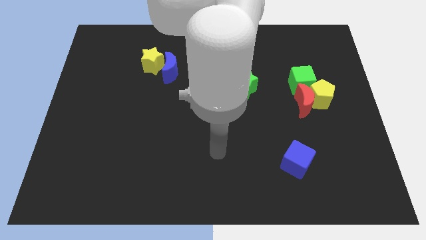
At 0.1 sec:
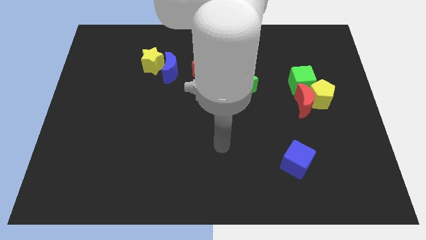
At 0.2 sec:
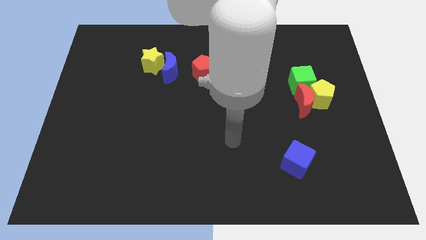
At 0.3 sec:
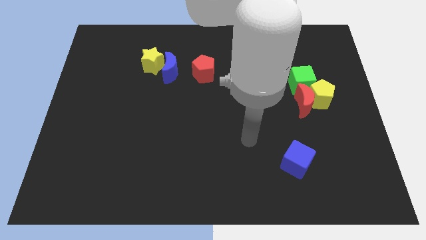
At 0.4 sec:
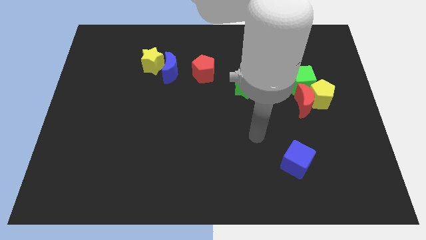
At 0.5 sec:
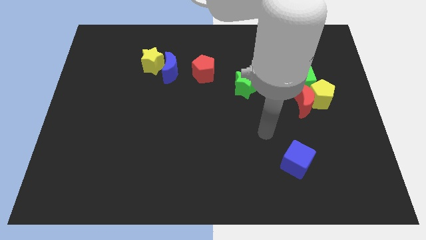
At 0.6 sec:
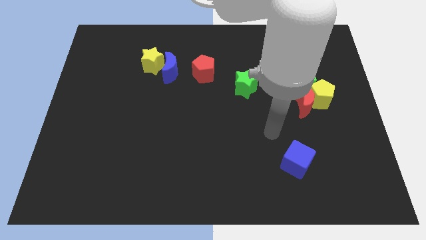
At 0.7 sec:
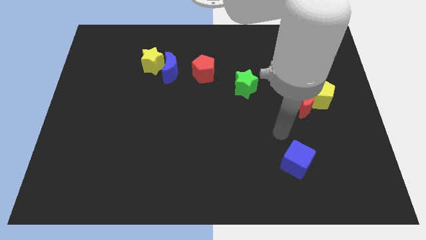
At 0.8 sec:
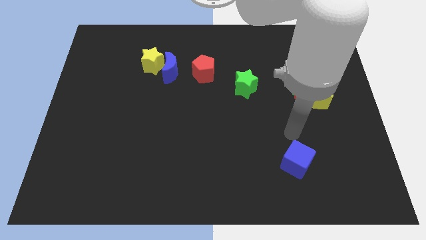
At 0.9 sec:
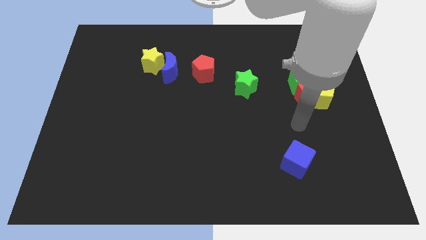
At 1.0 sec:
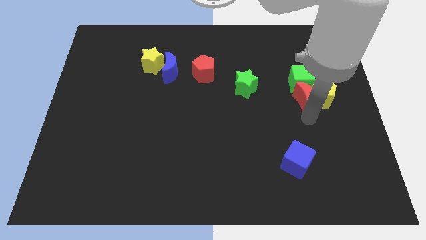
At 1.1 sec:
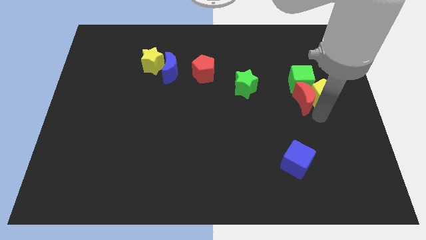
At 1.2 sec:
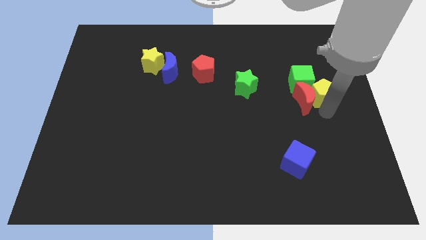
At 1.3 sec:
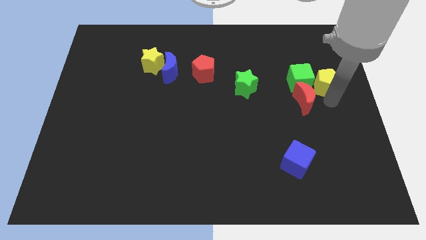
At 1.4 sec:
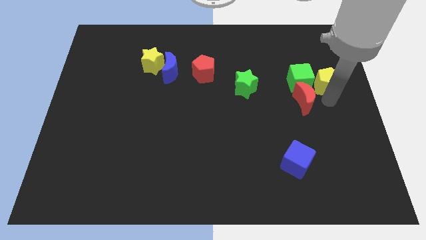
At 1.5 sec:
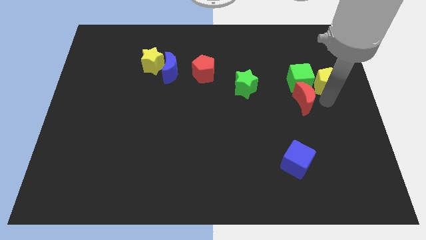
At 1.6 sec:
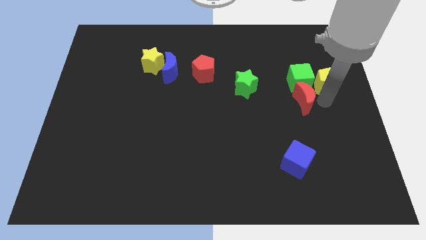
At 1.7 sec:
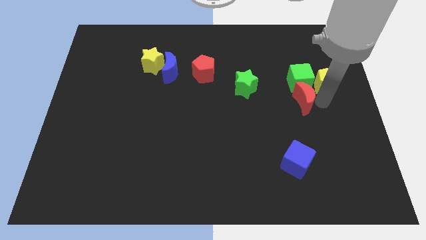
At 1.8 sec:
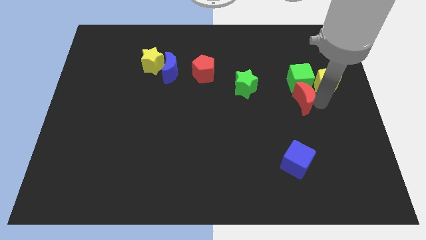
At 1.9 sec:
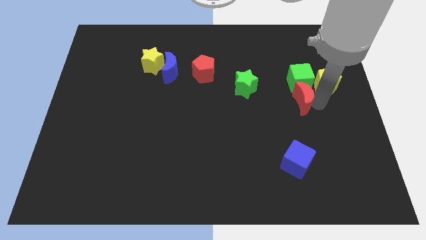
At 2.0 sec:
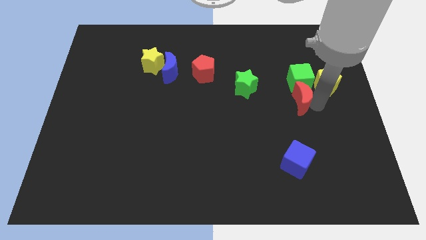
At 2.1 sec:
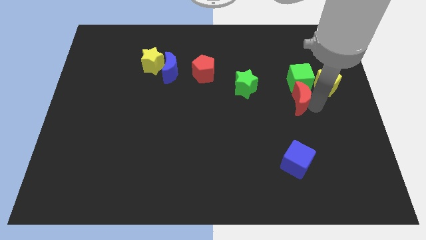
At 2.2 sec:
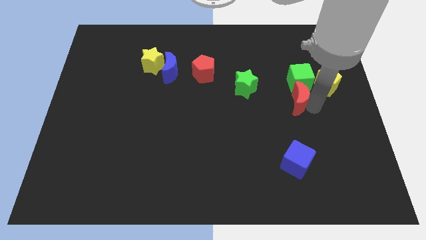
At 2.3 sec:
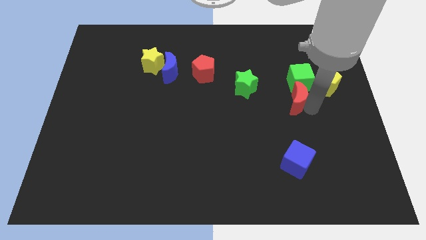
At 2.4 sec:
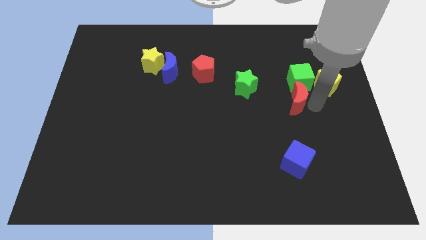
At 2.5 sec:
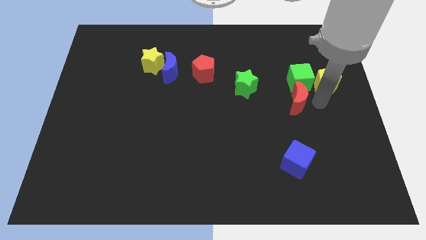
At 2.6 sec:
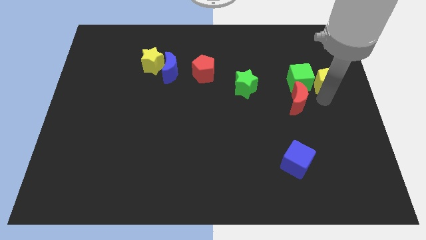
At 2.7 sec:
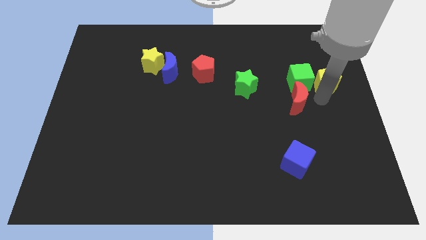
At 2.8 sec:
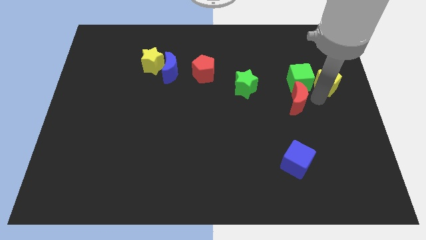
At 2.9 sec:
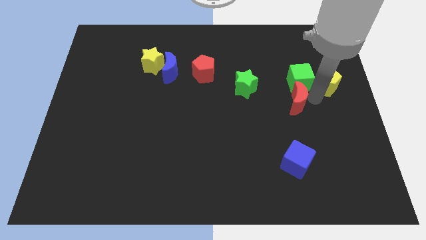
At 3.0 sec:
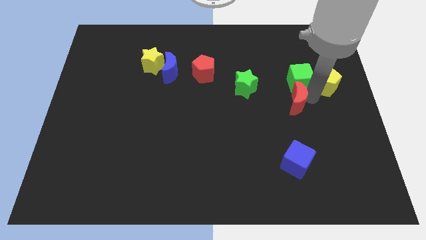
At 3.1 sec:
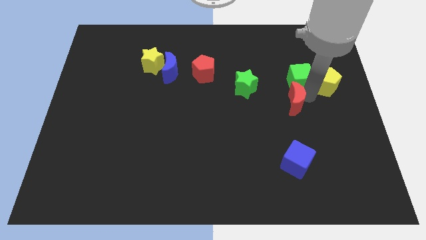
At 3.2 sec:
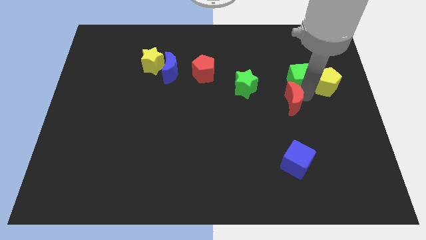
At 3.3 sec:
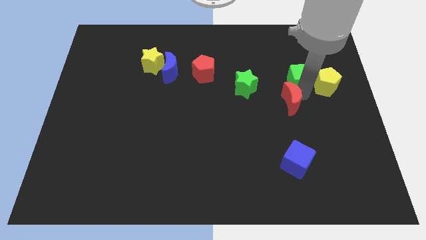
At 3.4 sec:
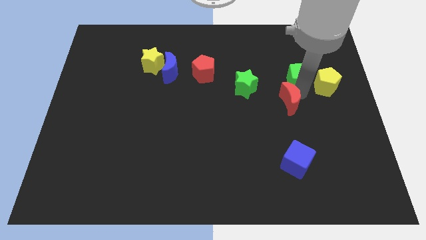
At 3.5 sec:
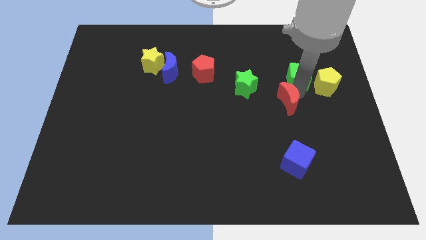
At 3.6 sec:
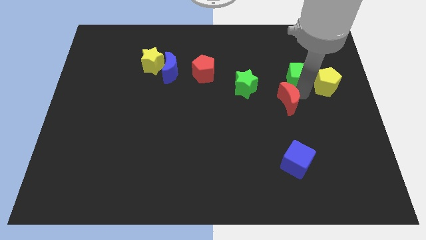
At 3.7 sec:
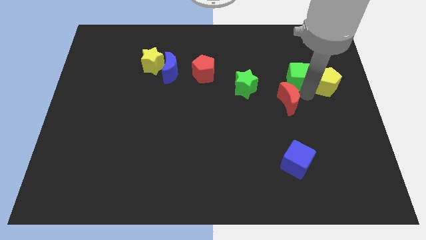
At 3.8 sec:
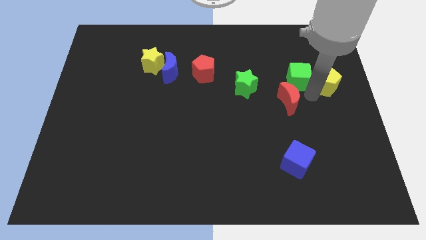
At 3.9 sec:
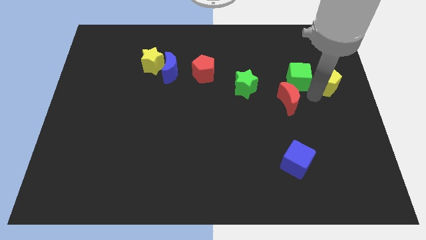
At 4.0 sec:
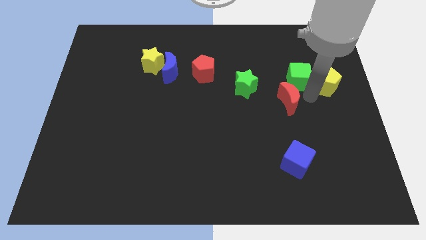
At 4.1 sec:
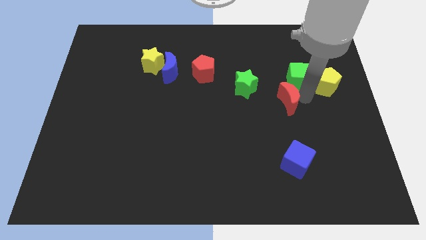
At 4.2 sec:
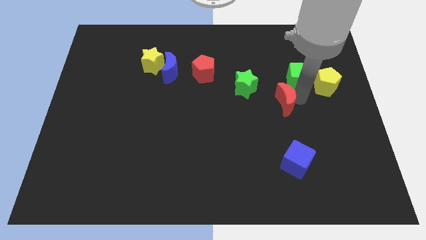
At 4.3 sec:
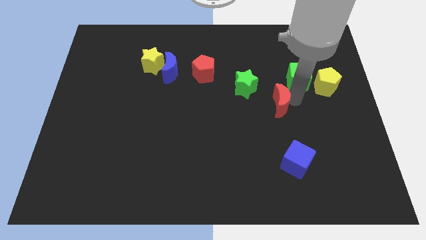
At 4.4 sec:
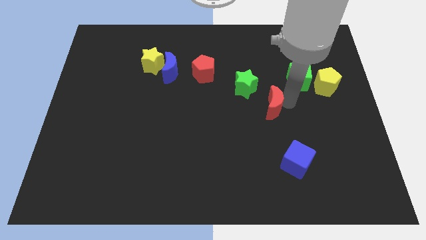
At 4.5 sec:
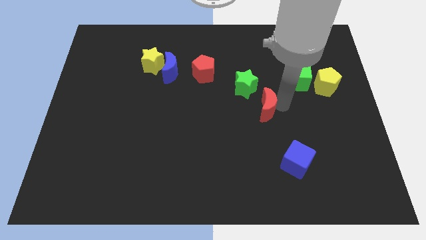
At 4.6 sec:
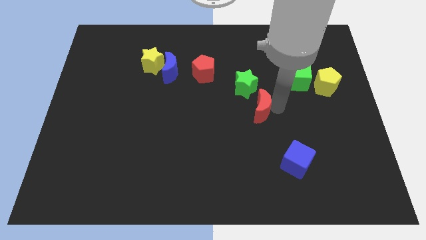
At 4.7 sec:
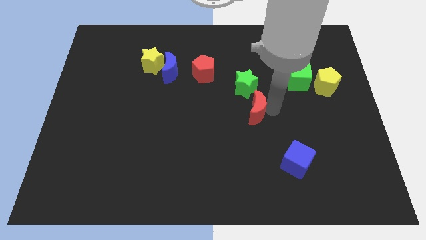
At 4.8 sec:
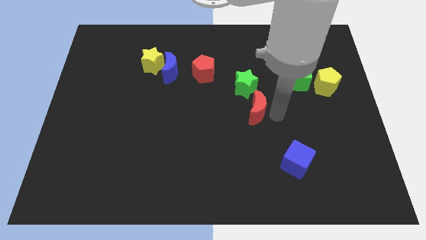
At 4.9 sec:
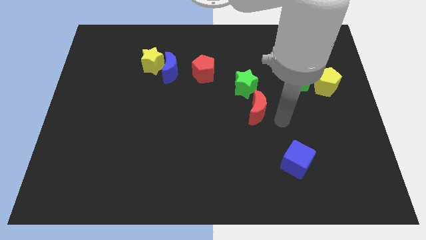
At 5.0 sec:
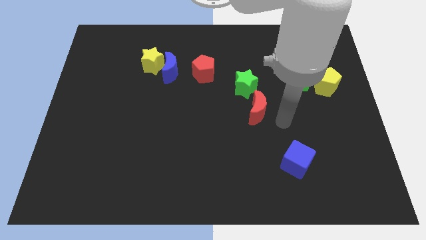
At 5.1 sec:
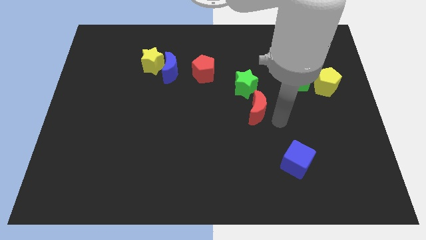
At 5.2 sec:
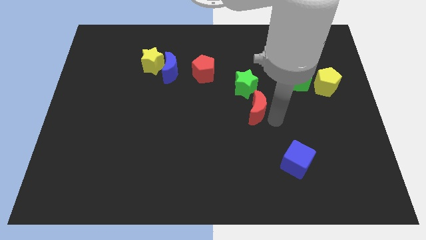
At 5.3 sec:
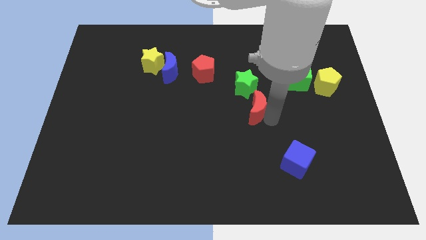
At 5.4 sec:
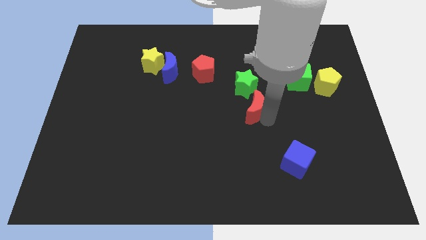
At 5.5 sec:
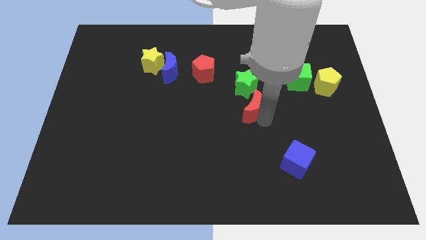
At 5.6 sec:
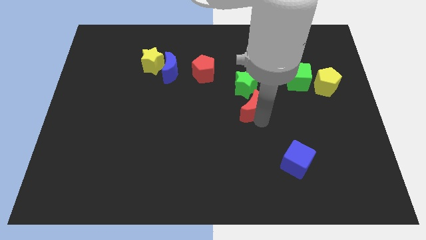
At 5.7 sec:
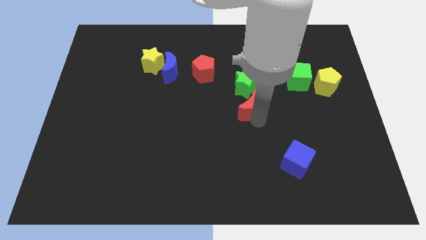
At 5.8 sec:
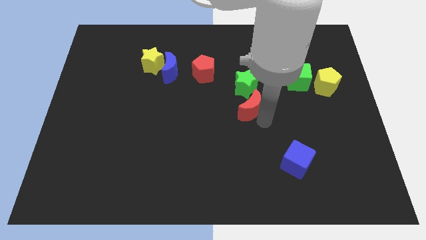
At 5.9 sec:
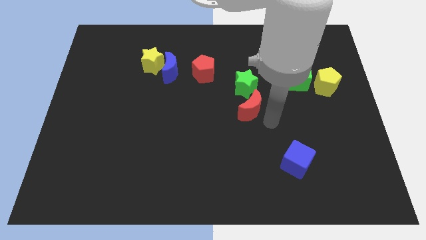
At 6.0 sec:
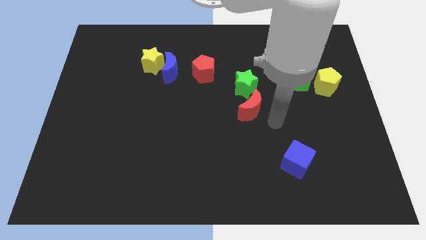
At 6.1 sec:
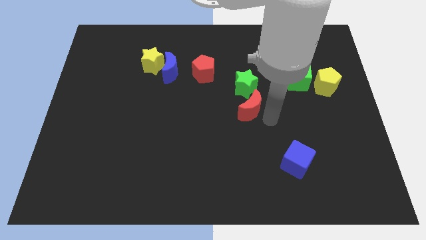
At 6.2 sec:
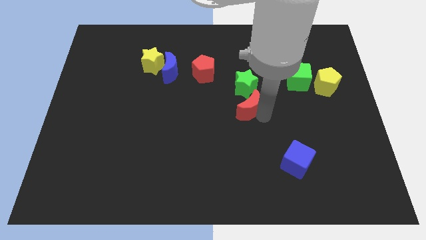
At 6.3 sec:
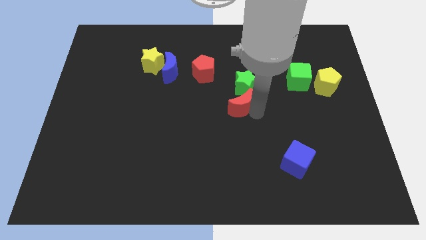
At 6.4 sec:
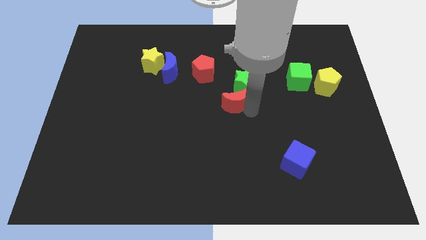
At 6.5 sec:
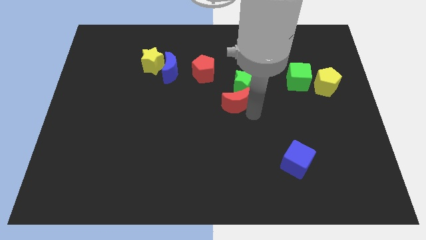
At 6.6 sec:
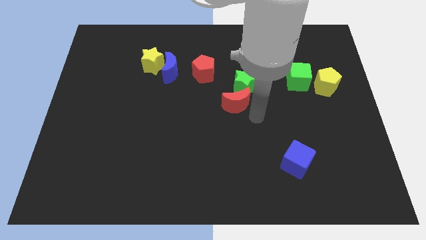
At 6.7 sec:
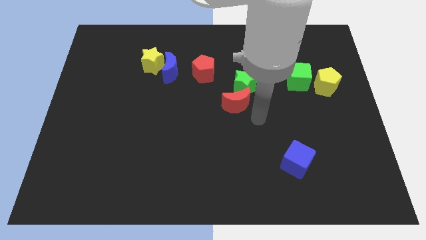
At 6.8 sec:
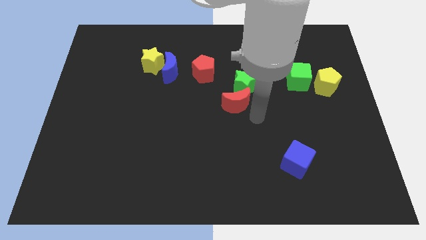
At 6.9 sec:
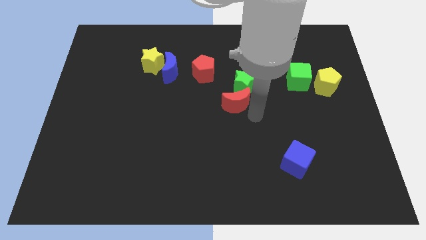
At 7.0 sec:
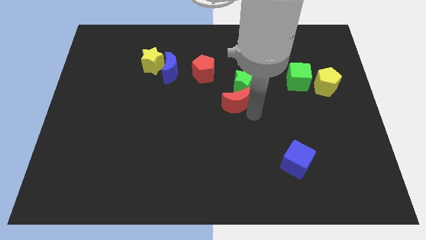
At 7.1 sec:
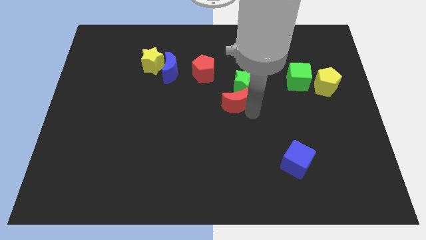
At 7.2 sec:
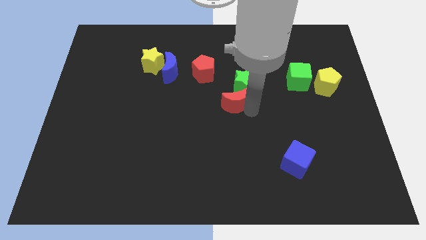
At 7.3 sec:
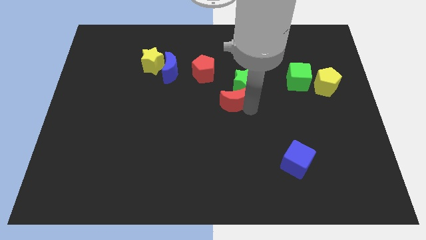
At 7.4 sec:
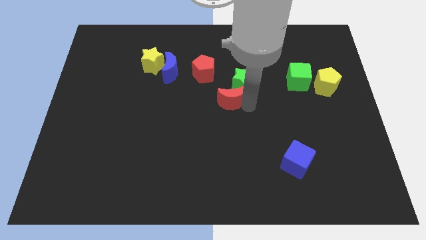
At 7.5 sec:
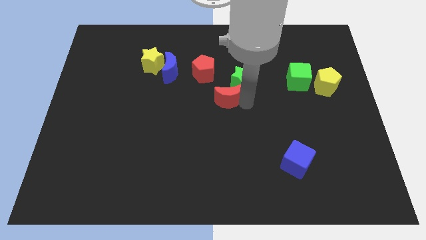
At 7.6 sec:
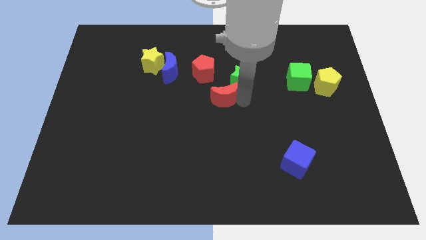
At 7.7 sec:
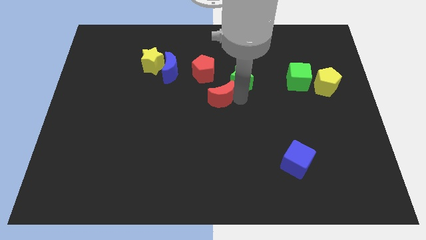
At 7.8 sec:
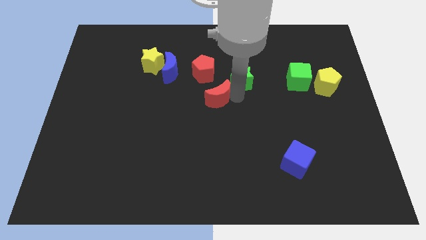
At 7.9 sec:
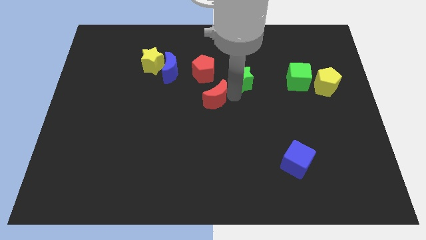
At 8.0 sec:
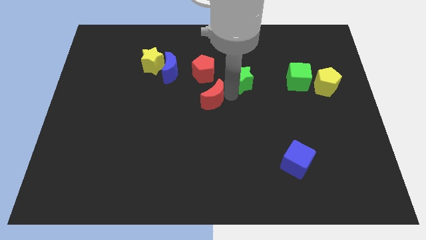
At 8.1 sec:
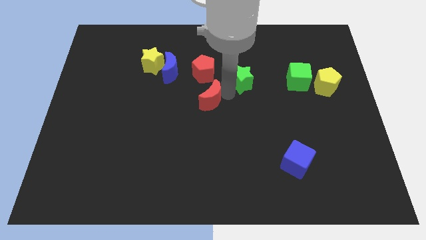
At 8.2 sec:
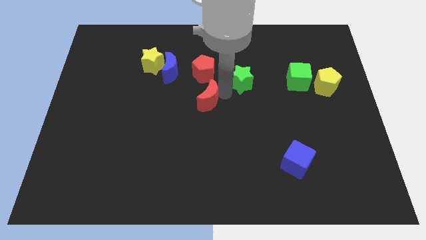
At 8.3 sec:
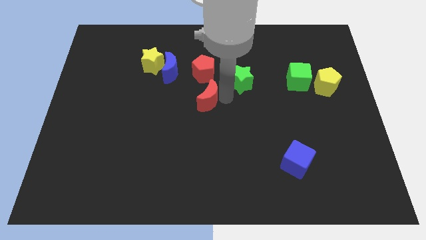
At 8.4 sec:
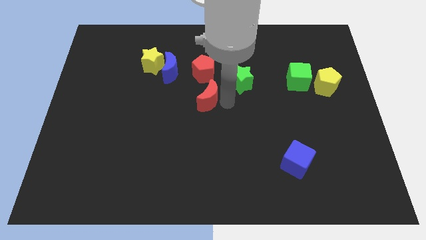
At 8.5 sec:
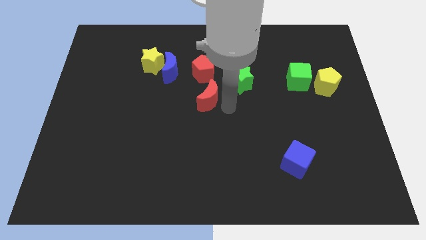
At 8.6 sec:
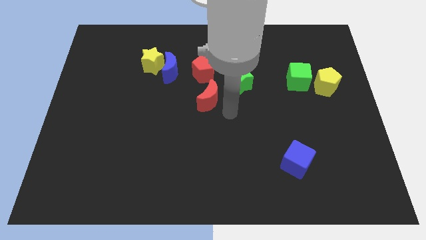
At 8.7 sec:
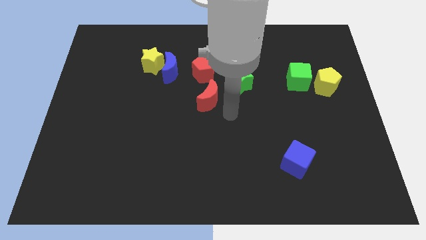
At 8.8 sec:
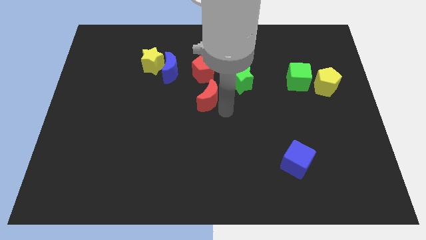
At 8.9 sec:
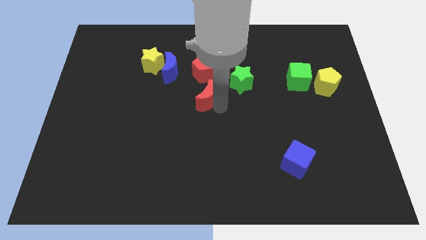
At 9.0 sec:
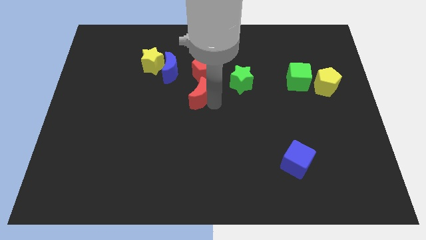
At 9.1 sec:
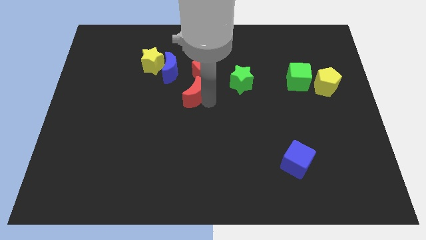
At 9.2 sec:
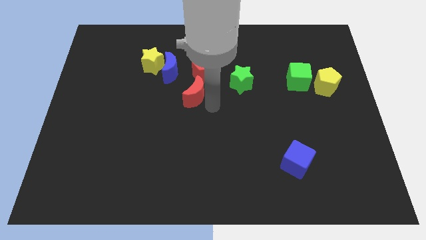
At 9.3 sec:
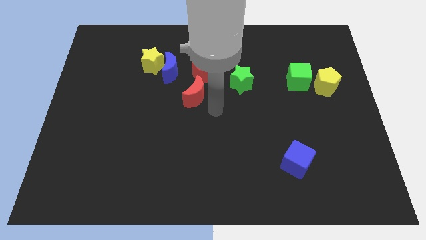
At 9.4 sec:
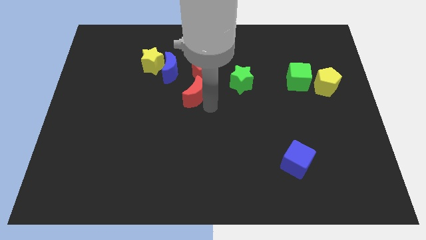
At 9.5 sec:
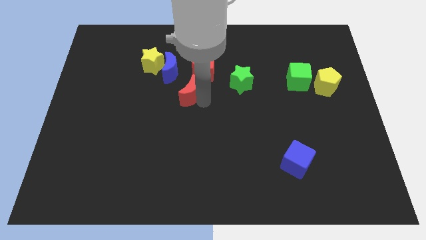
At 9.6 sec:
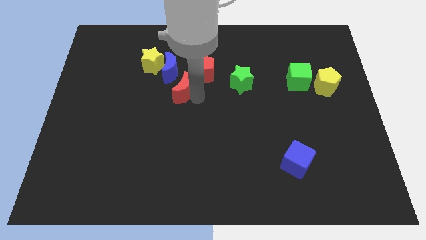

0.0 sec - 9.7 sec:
move the red moon to the bottom right of the yellow star
